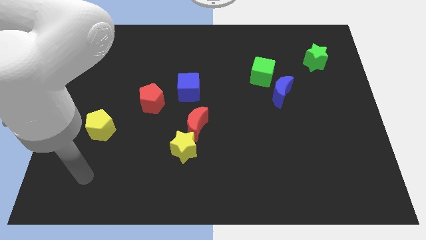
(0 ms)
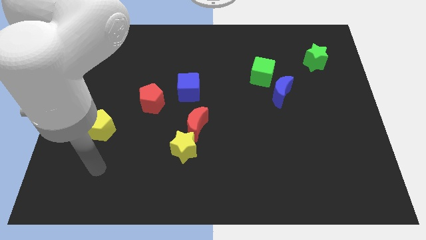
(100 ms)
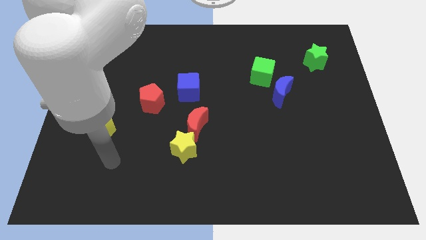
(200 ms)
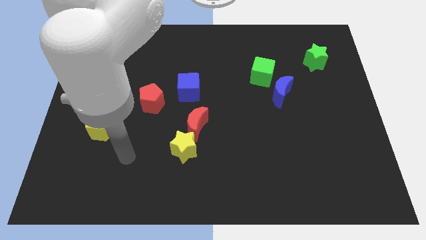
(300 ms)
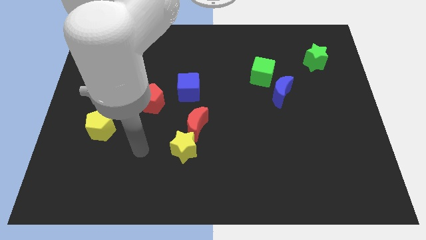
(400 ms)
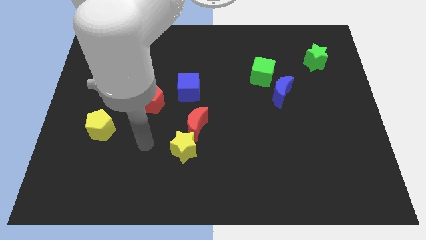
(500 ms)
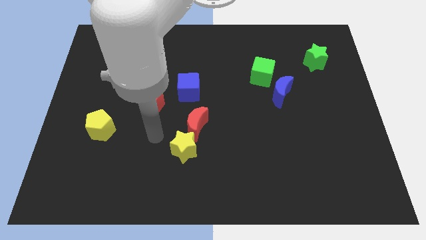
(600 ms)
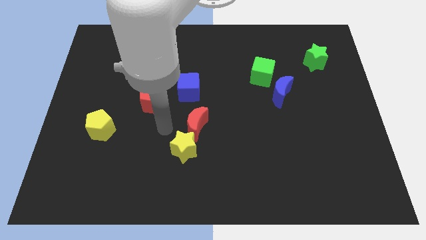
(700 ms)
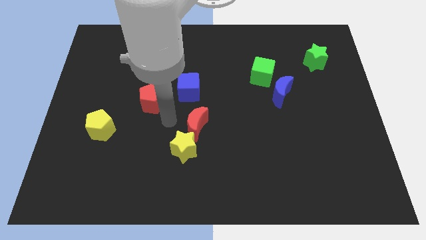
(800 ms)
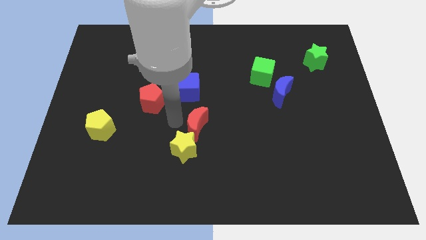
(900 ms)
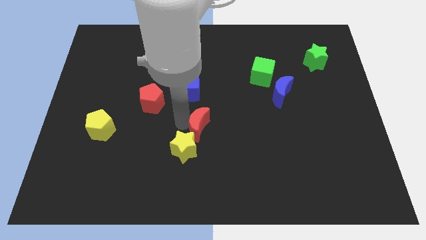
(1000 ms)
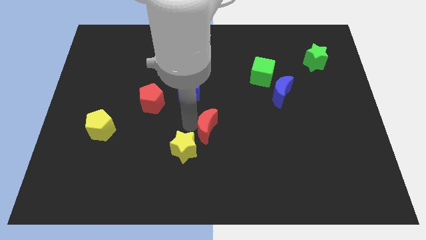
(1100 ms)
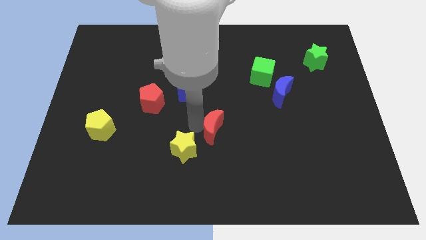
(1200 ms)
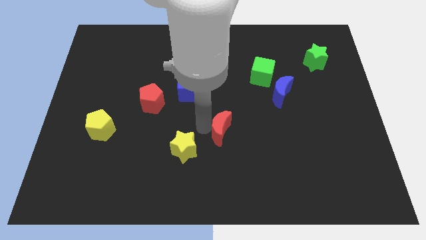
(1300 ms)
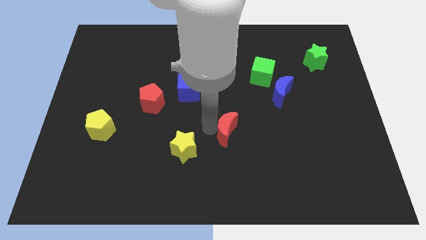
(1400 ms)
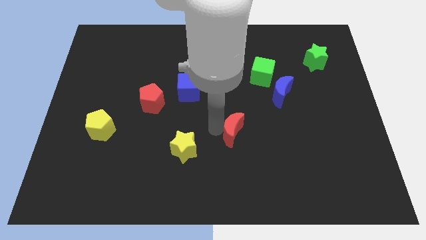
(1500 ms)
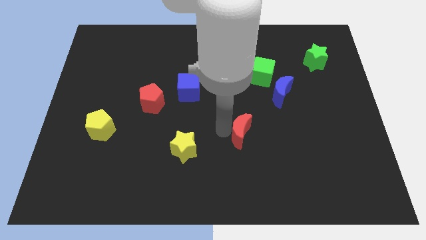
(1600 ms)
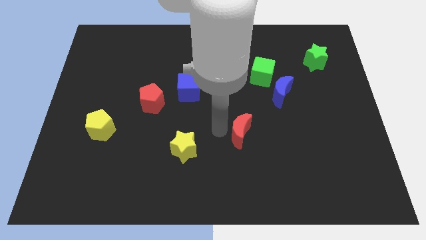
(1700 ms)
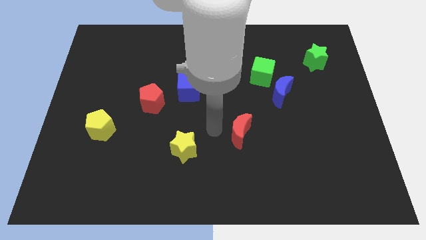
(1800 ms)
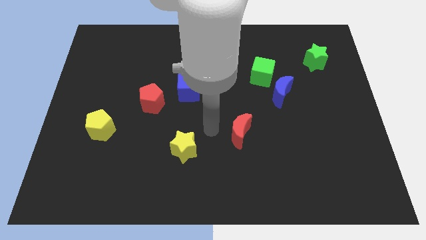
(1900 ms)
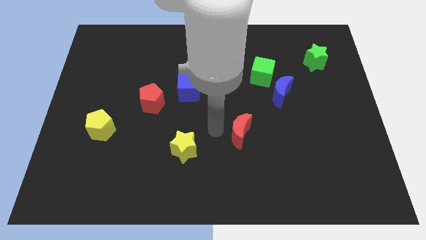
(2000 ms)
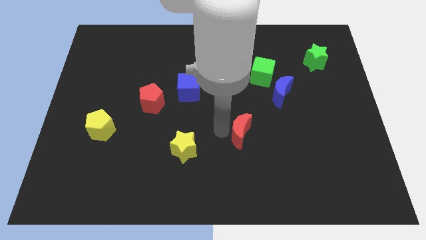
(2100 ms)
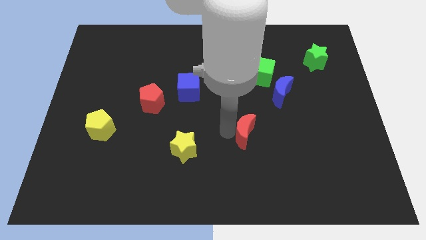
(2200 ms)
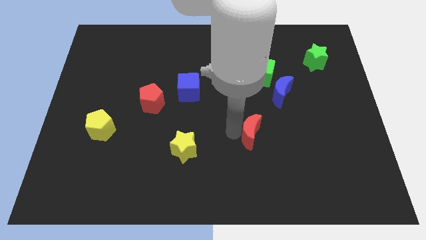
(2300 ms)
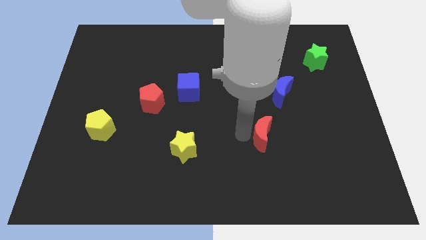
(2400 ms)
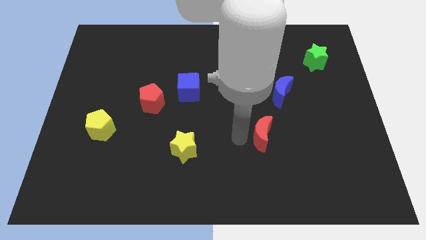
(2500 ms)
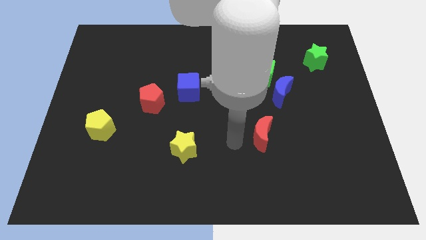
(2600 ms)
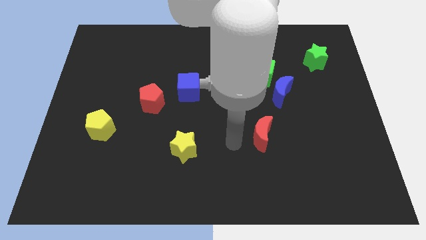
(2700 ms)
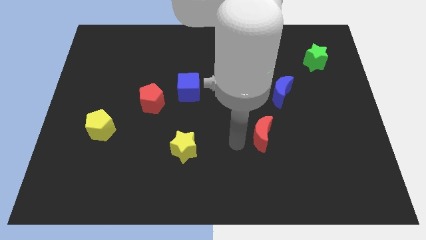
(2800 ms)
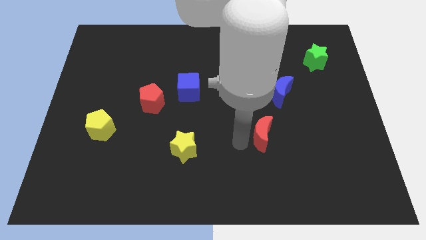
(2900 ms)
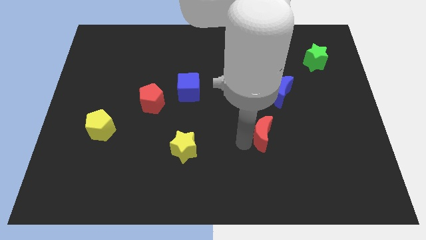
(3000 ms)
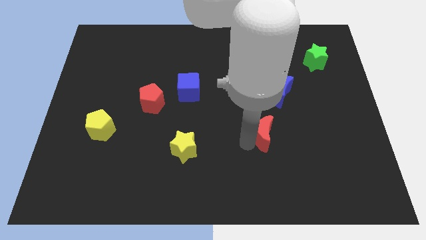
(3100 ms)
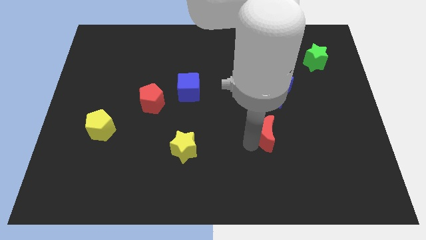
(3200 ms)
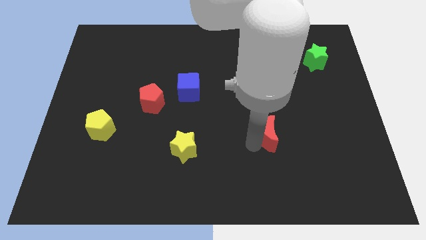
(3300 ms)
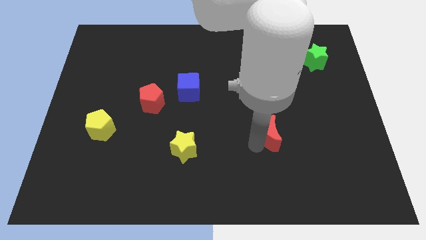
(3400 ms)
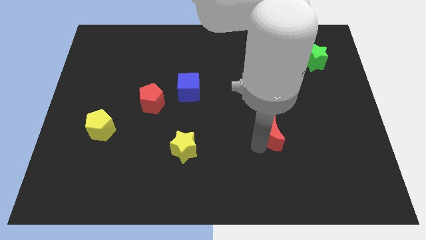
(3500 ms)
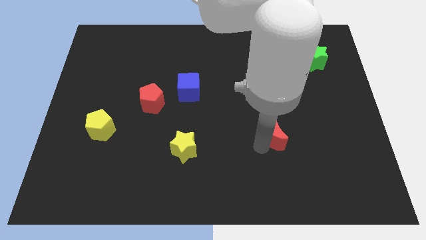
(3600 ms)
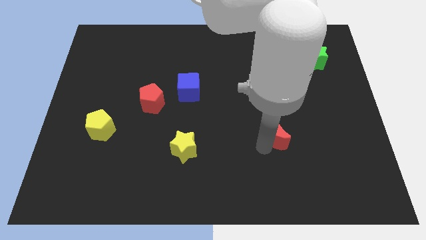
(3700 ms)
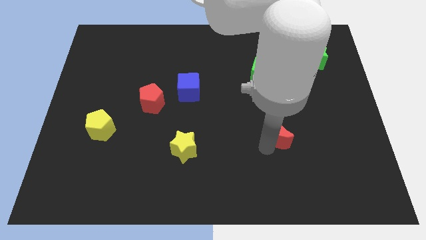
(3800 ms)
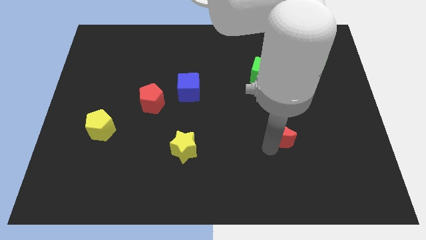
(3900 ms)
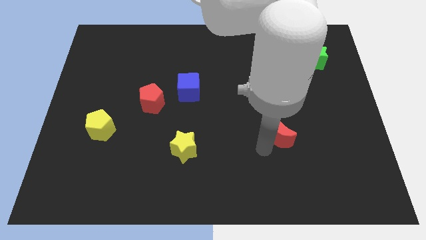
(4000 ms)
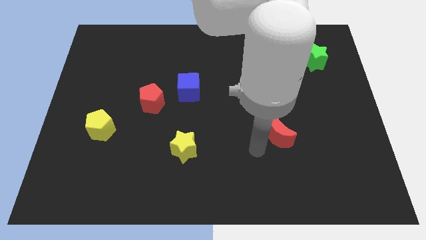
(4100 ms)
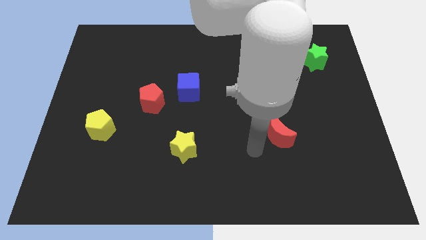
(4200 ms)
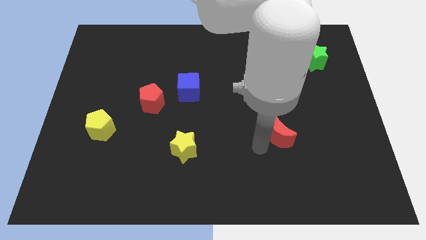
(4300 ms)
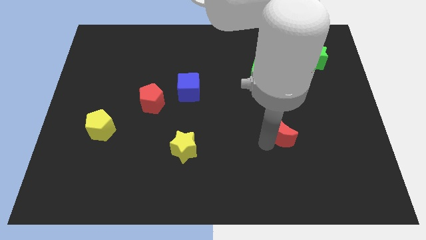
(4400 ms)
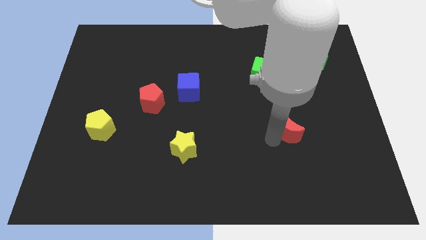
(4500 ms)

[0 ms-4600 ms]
move the red moon right

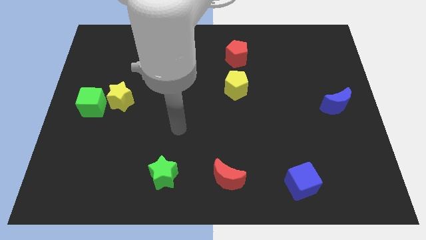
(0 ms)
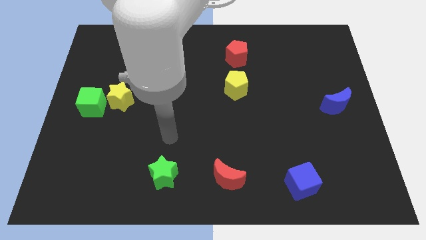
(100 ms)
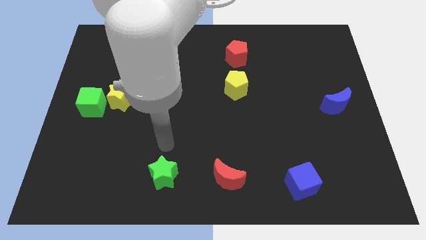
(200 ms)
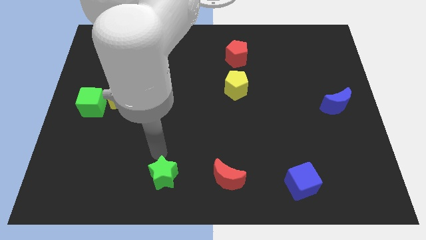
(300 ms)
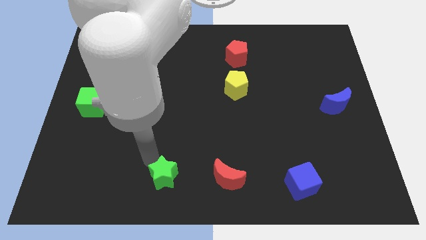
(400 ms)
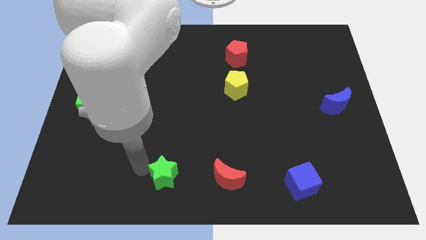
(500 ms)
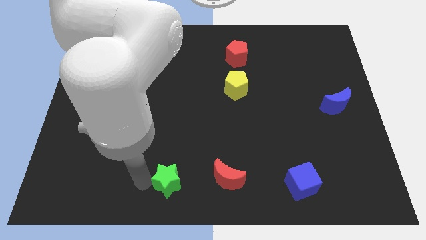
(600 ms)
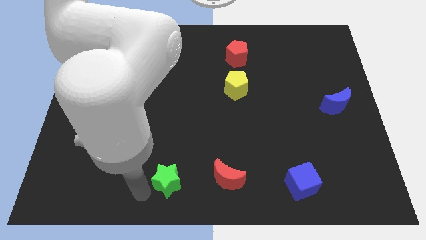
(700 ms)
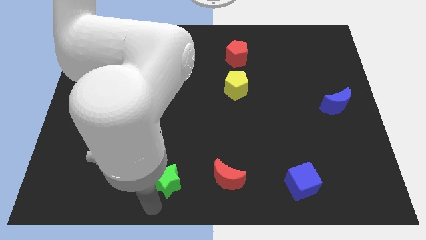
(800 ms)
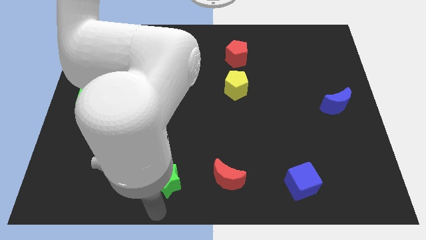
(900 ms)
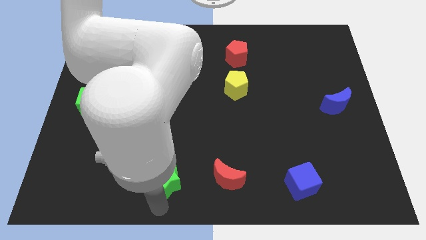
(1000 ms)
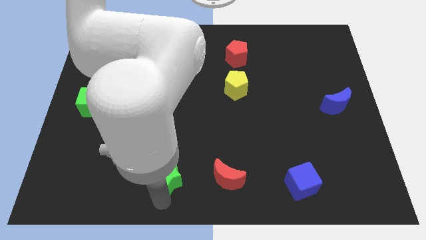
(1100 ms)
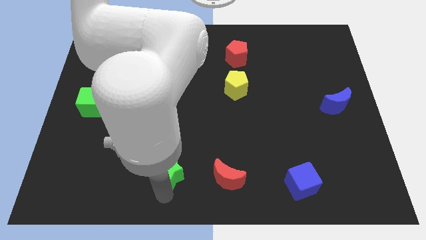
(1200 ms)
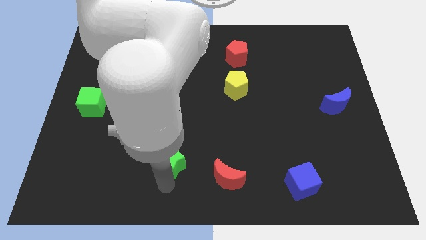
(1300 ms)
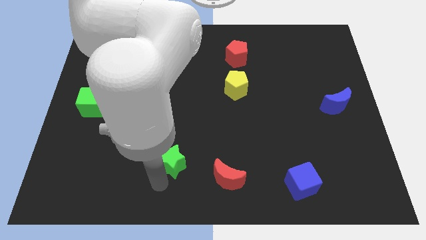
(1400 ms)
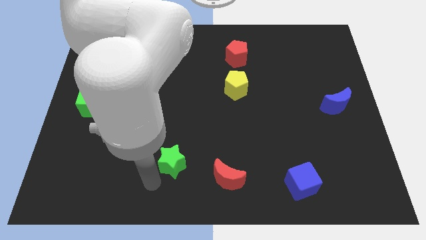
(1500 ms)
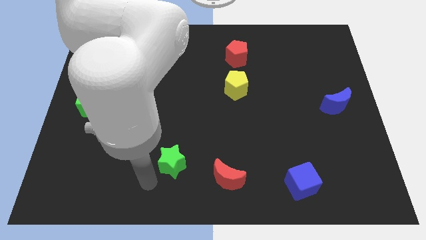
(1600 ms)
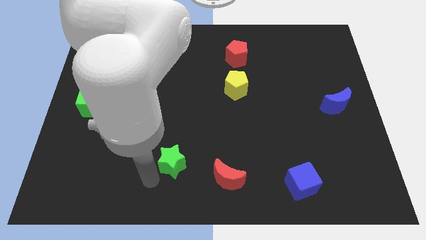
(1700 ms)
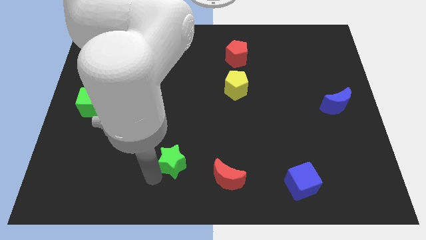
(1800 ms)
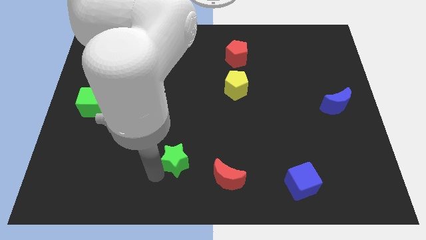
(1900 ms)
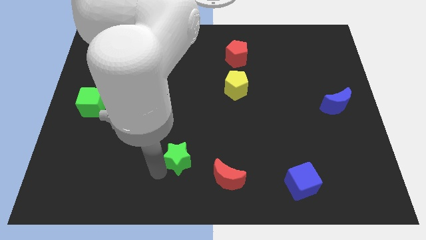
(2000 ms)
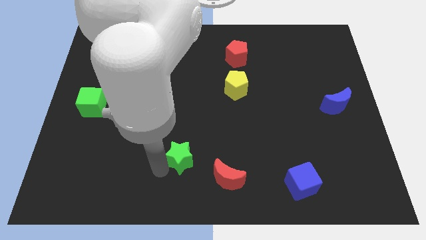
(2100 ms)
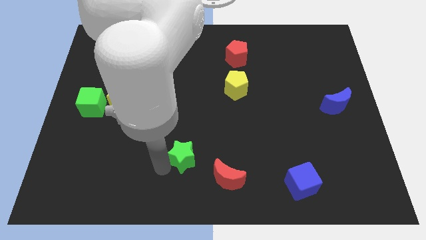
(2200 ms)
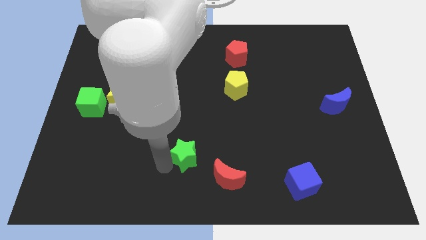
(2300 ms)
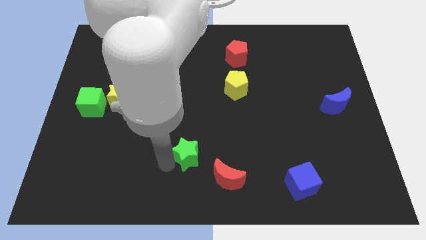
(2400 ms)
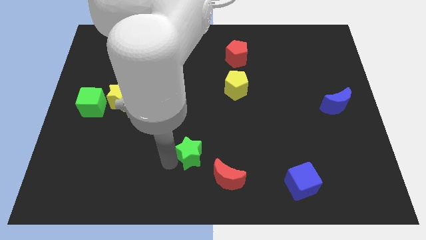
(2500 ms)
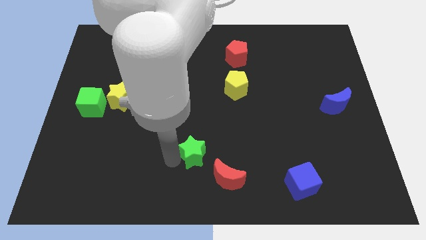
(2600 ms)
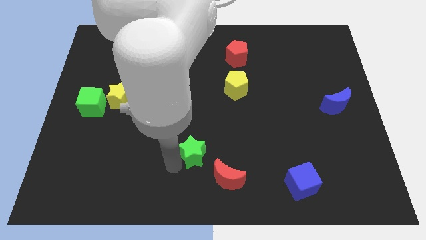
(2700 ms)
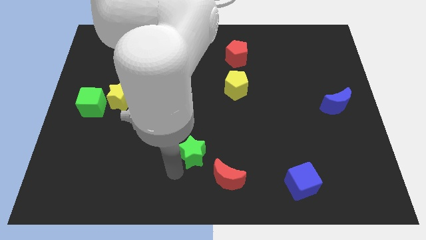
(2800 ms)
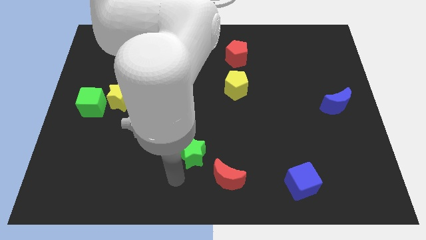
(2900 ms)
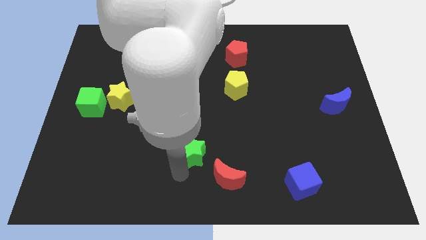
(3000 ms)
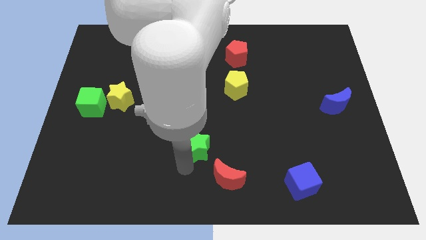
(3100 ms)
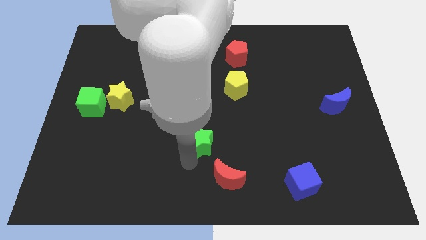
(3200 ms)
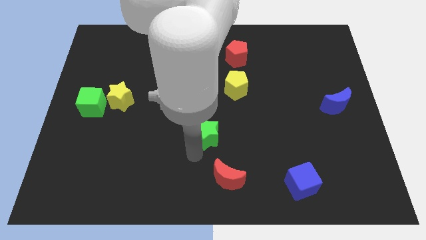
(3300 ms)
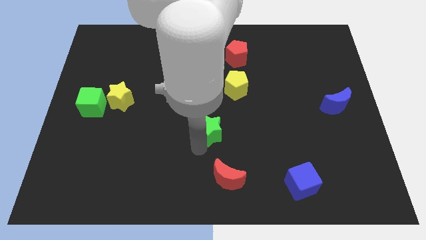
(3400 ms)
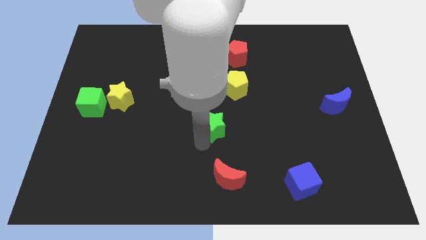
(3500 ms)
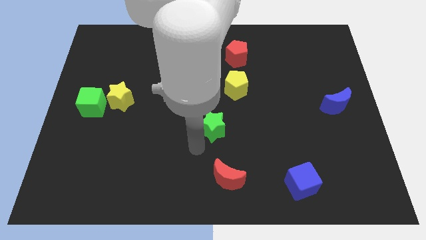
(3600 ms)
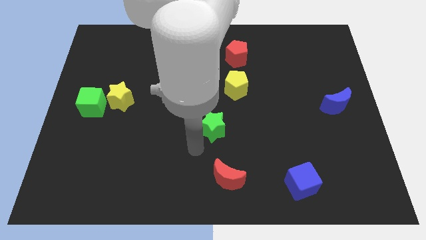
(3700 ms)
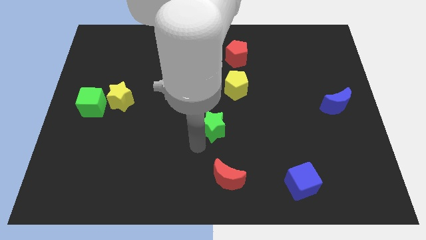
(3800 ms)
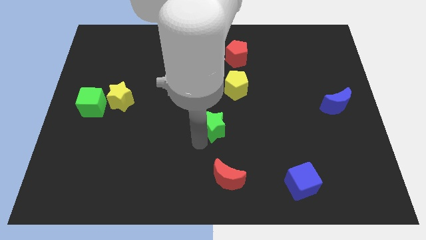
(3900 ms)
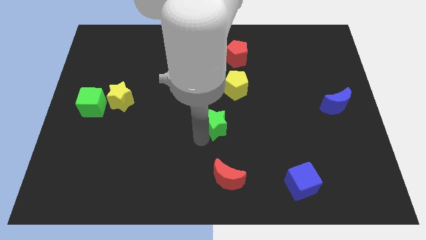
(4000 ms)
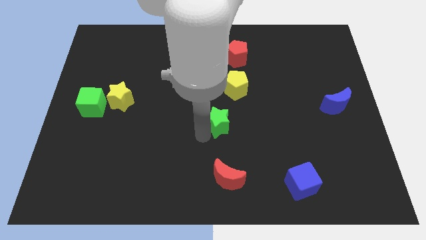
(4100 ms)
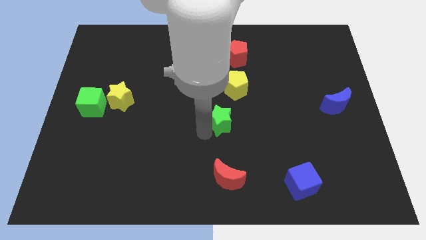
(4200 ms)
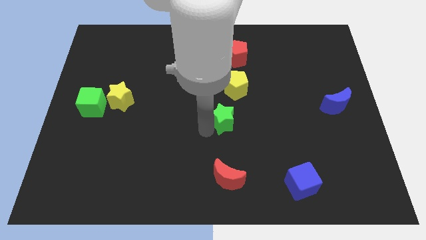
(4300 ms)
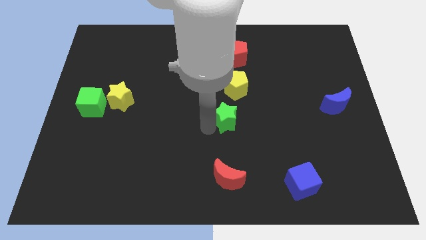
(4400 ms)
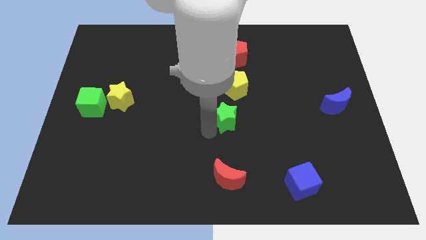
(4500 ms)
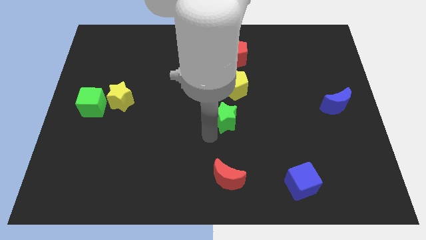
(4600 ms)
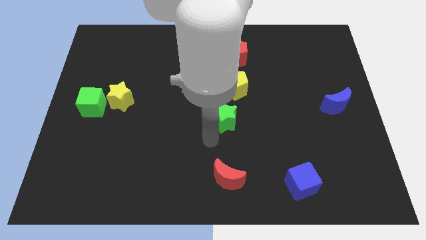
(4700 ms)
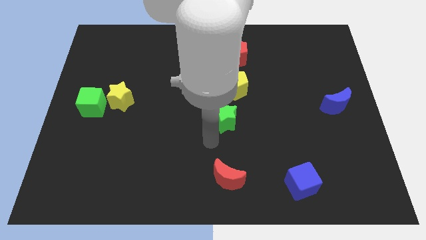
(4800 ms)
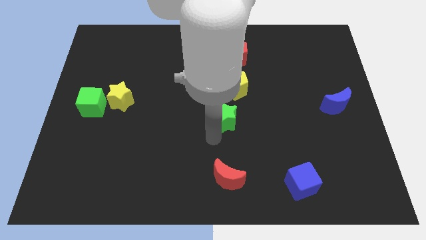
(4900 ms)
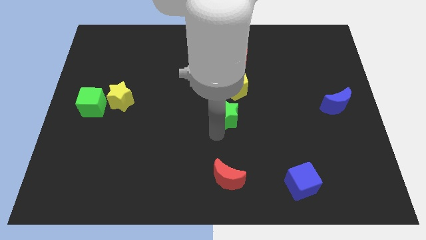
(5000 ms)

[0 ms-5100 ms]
slide the green star up and right
